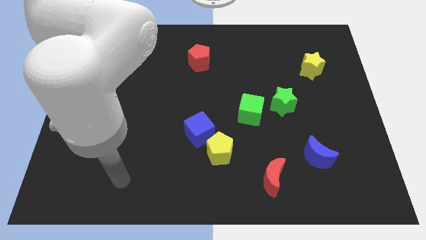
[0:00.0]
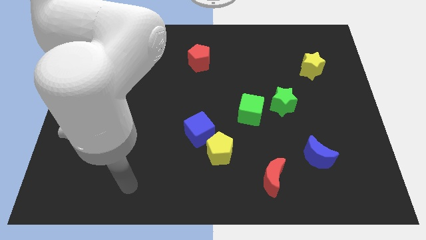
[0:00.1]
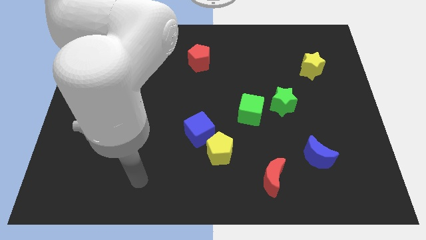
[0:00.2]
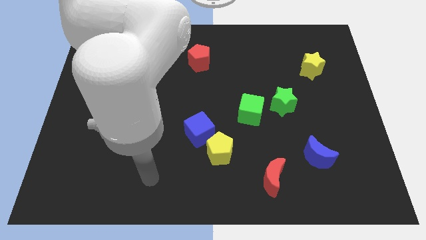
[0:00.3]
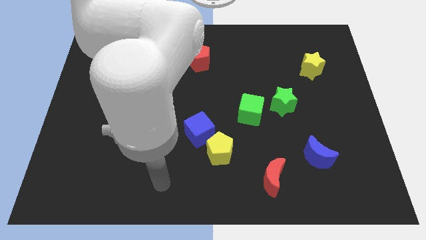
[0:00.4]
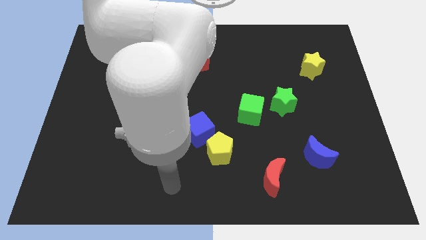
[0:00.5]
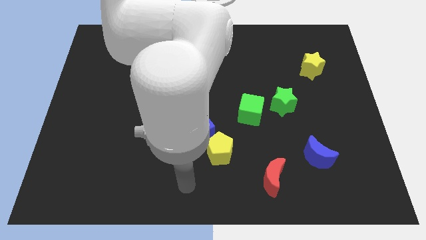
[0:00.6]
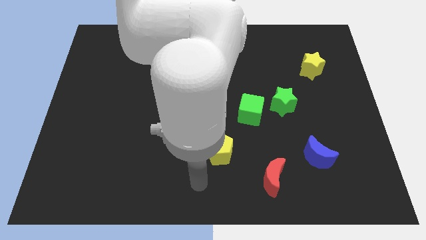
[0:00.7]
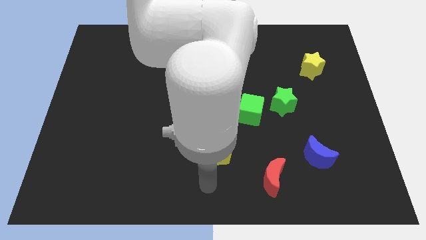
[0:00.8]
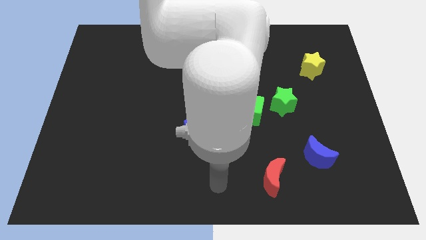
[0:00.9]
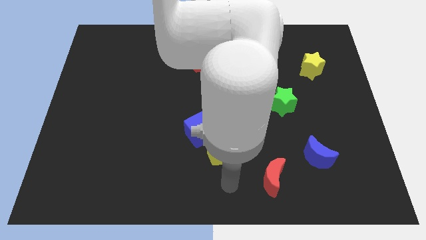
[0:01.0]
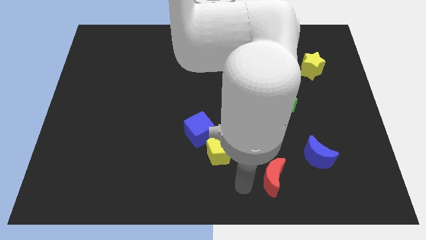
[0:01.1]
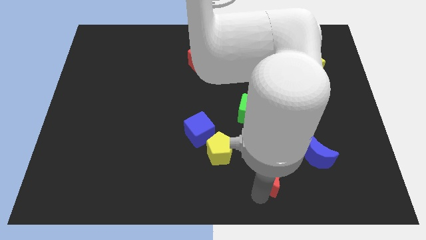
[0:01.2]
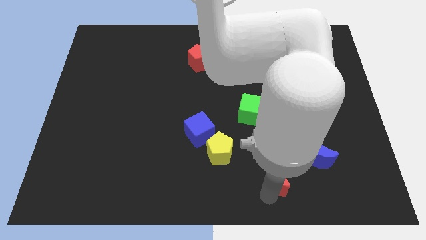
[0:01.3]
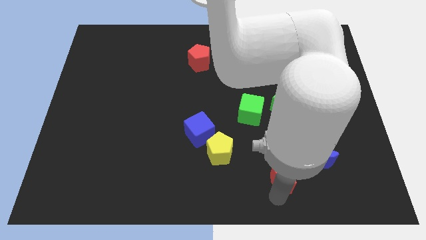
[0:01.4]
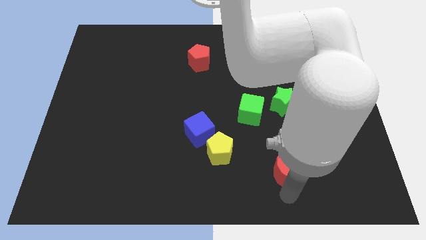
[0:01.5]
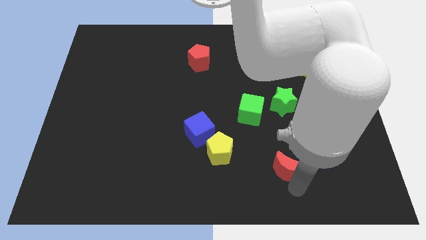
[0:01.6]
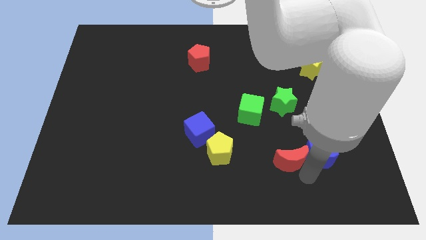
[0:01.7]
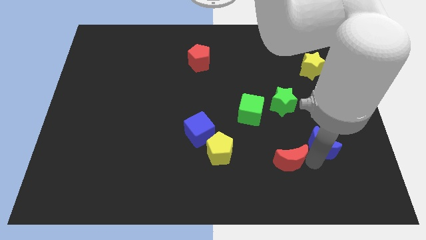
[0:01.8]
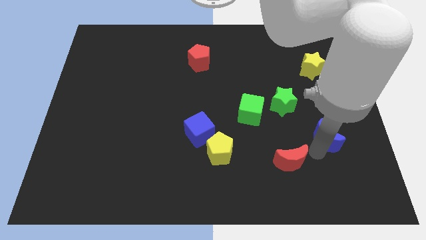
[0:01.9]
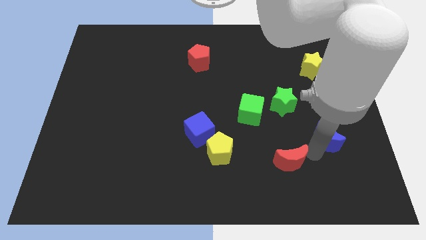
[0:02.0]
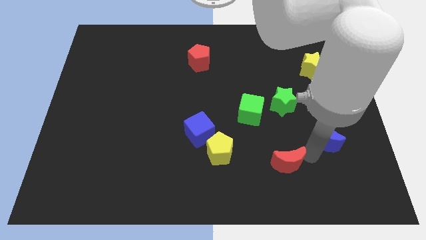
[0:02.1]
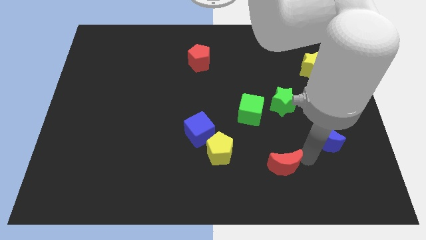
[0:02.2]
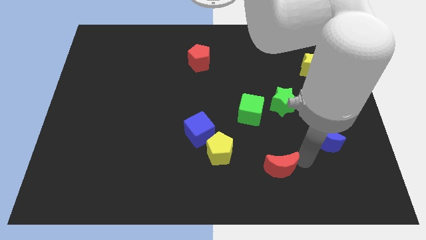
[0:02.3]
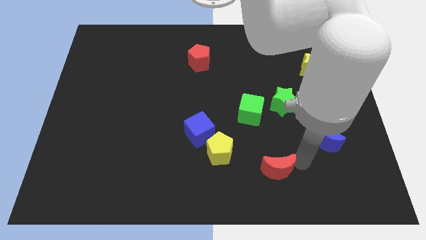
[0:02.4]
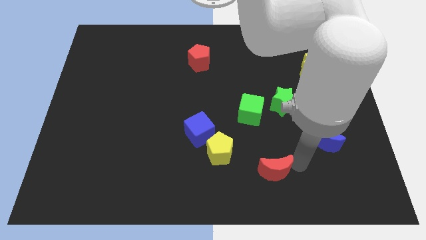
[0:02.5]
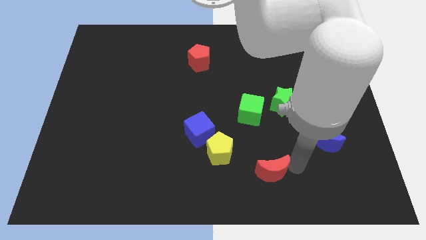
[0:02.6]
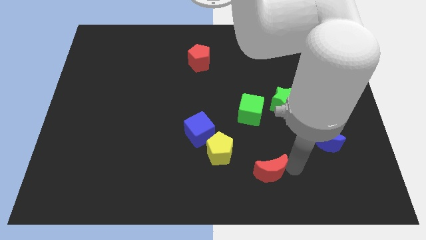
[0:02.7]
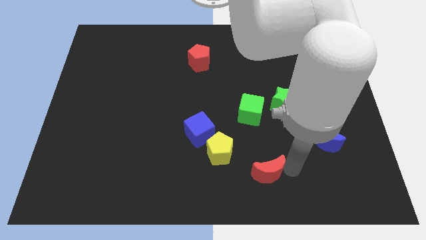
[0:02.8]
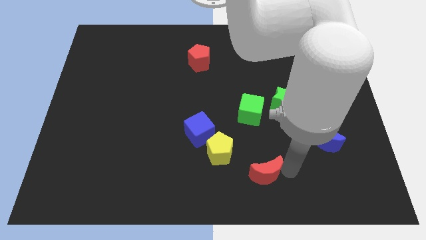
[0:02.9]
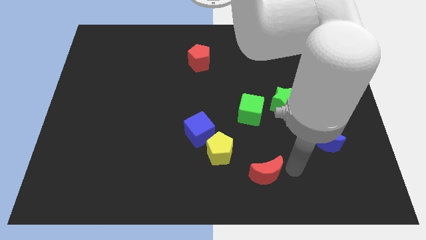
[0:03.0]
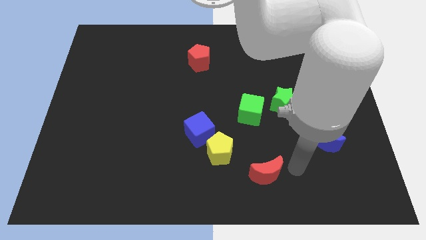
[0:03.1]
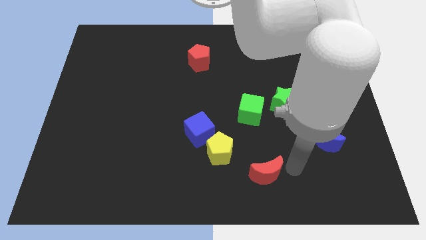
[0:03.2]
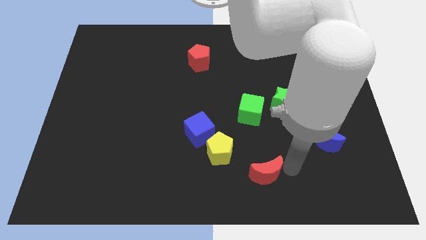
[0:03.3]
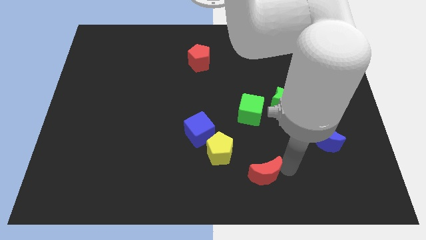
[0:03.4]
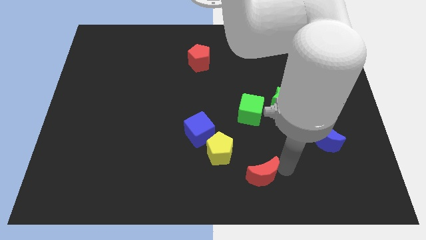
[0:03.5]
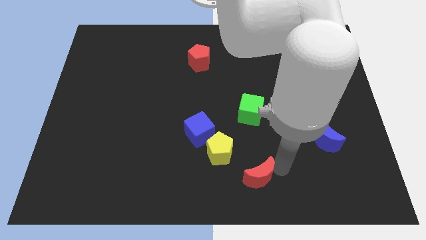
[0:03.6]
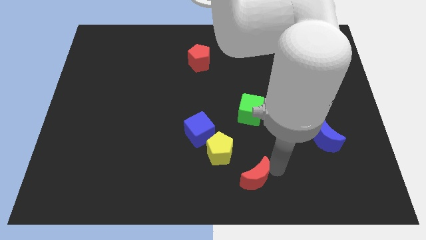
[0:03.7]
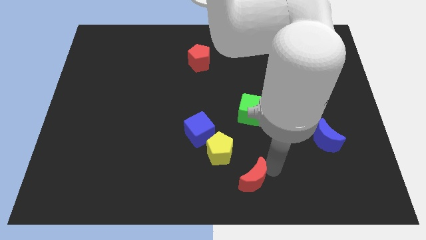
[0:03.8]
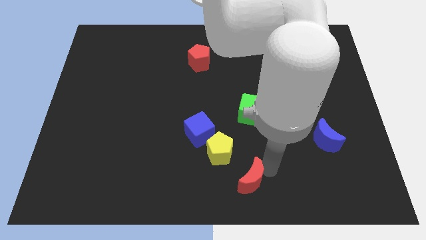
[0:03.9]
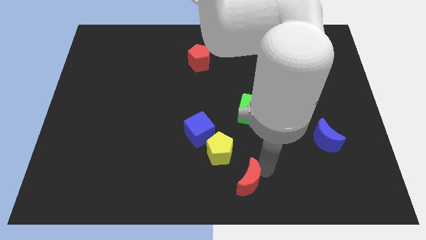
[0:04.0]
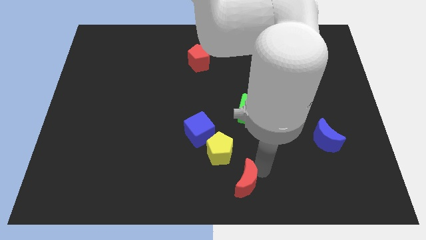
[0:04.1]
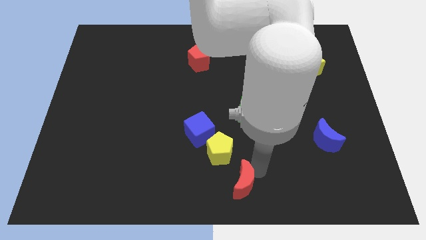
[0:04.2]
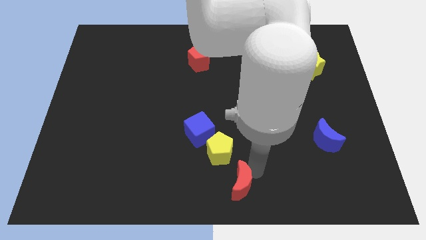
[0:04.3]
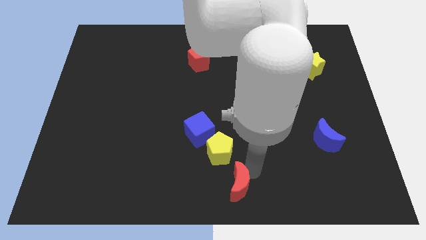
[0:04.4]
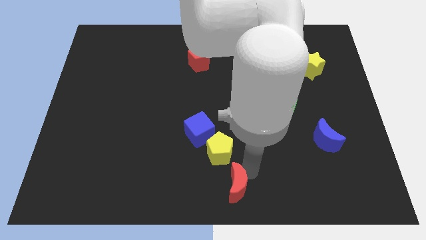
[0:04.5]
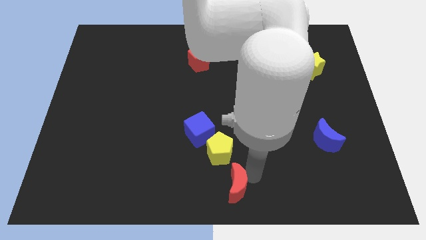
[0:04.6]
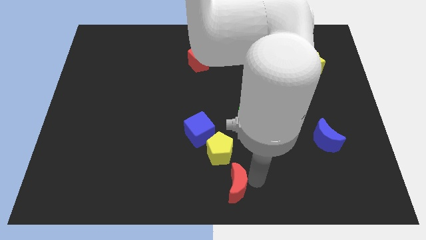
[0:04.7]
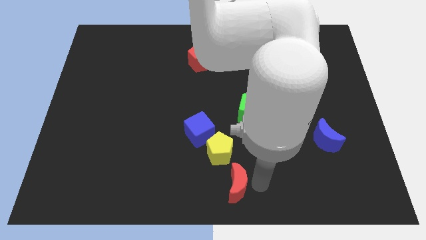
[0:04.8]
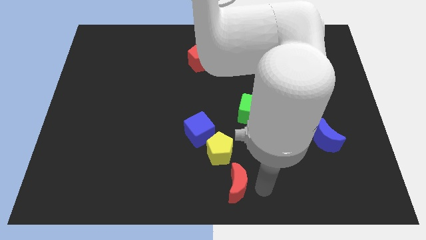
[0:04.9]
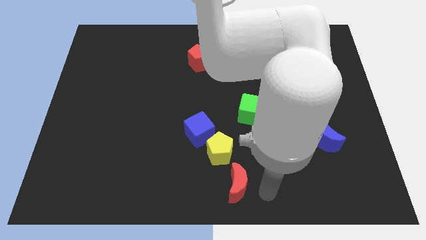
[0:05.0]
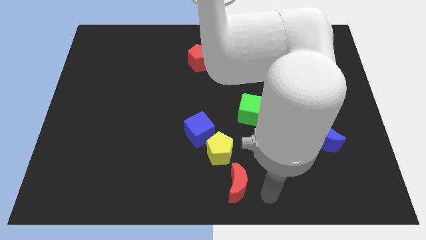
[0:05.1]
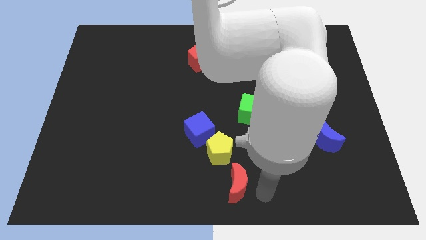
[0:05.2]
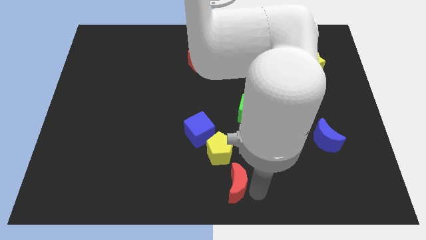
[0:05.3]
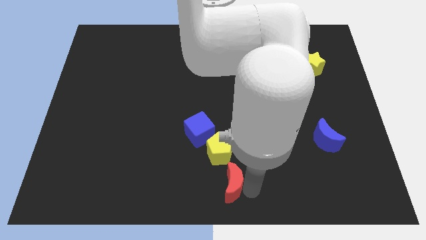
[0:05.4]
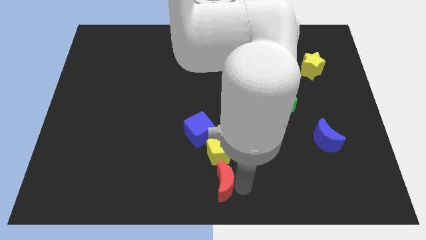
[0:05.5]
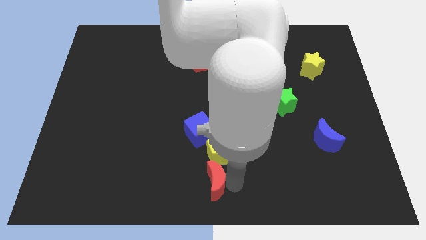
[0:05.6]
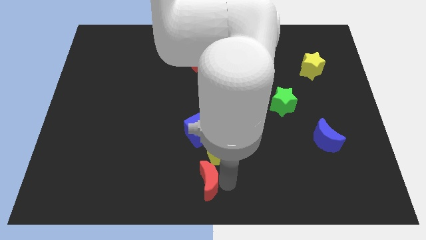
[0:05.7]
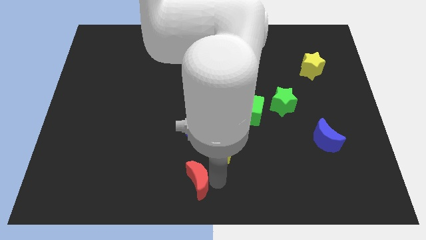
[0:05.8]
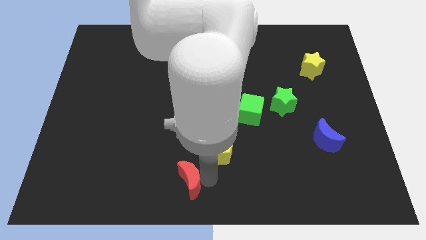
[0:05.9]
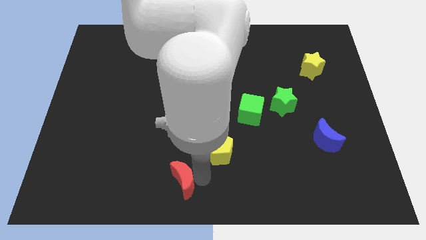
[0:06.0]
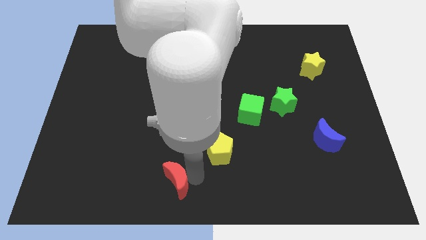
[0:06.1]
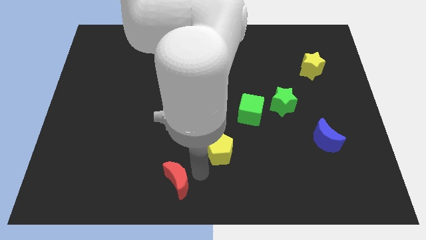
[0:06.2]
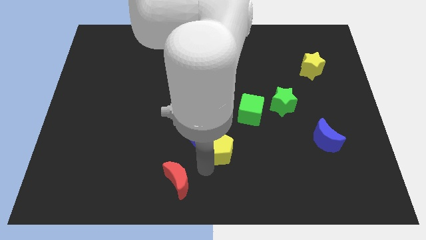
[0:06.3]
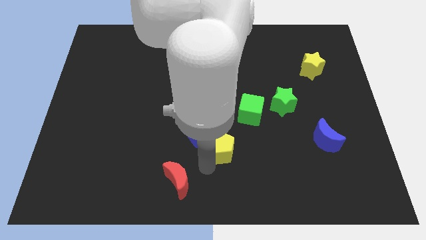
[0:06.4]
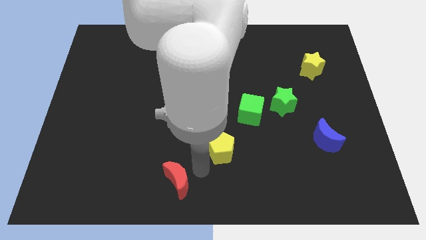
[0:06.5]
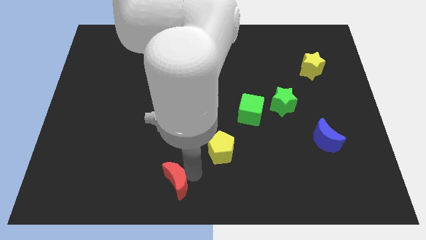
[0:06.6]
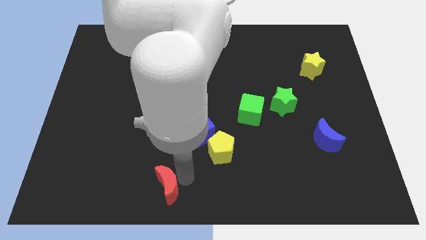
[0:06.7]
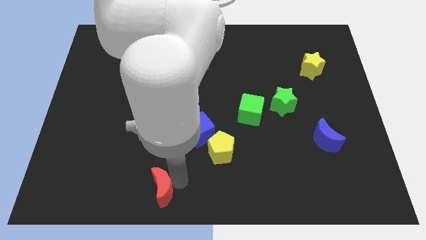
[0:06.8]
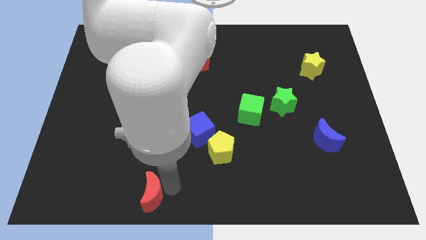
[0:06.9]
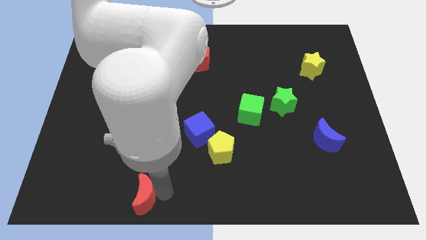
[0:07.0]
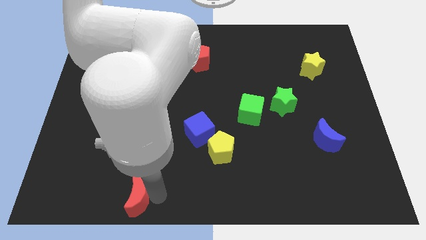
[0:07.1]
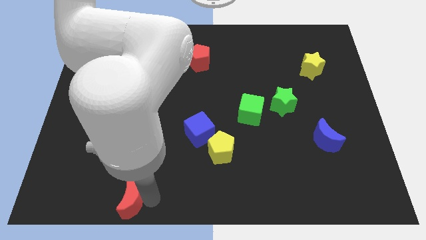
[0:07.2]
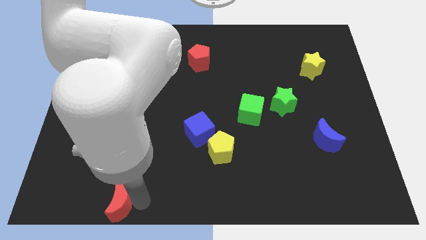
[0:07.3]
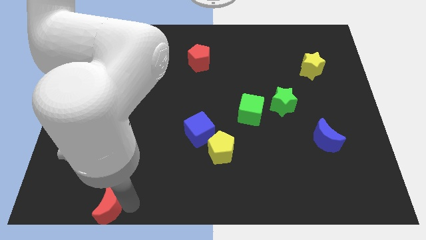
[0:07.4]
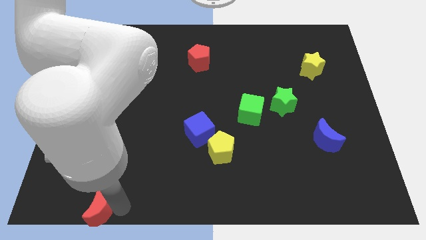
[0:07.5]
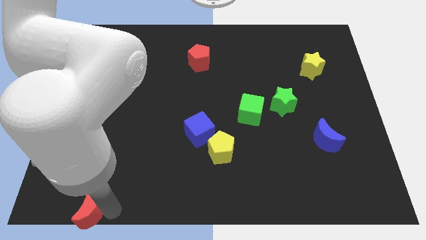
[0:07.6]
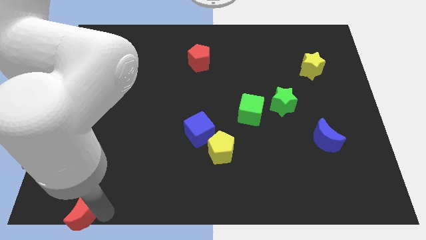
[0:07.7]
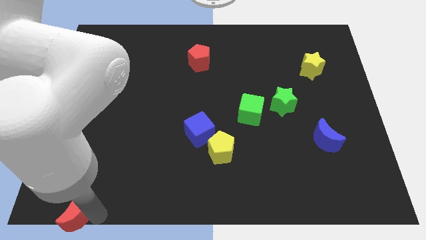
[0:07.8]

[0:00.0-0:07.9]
push the red moon to the bottom left
